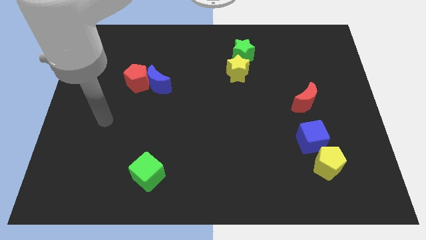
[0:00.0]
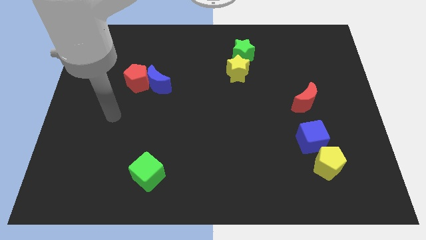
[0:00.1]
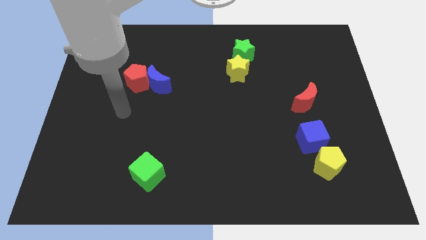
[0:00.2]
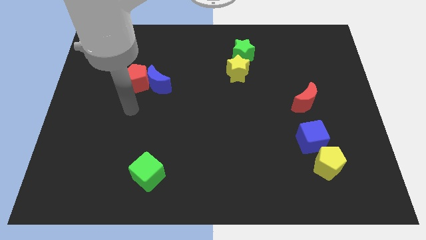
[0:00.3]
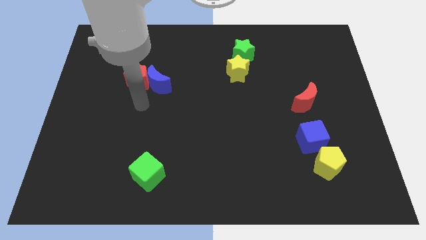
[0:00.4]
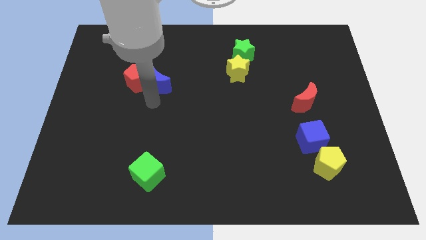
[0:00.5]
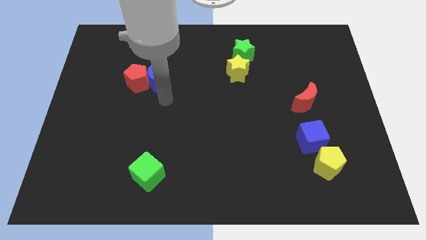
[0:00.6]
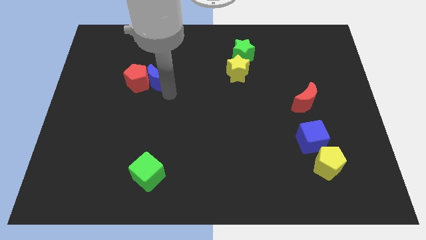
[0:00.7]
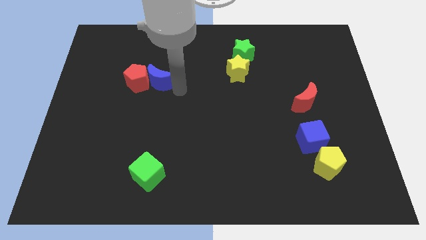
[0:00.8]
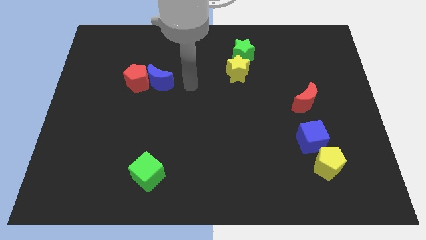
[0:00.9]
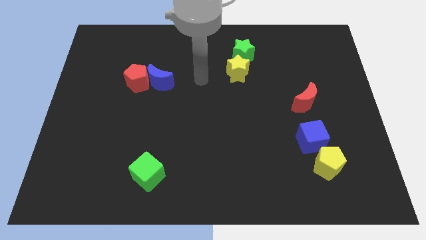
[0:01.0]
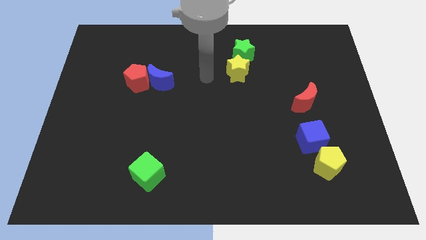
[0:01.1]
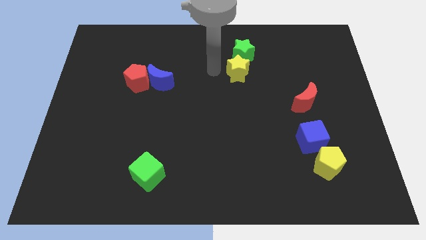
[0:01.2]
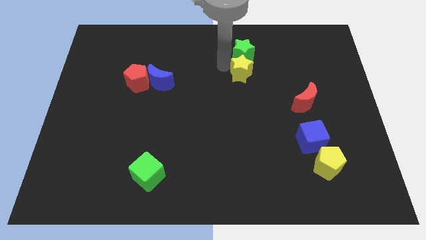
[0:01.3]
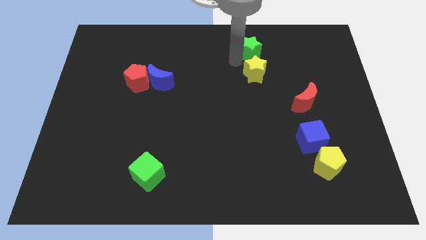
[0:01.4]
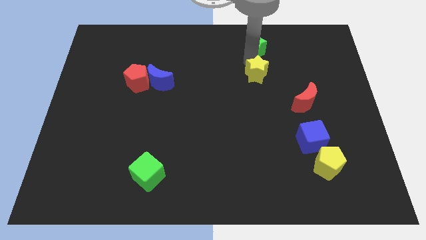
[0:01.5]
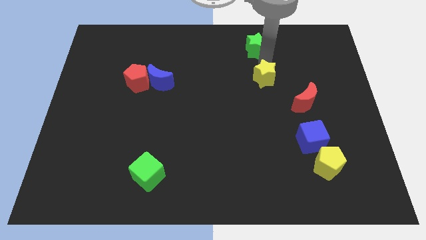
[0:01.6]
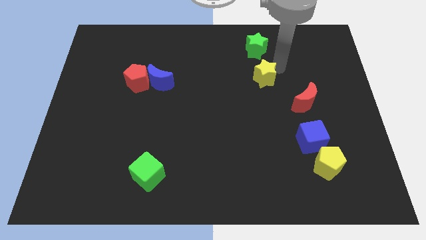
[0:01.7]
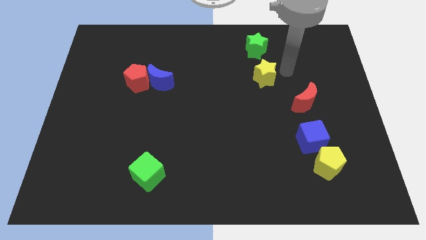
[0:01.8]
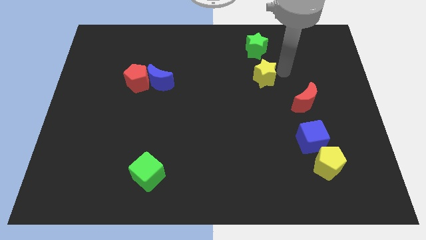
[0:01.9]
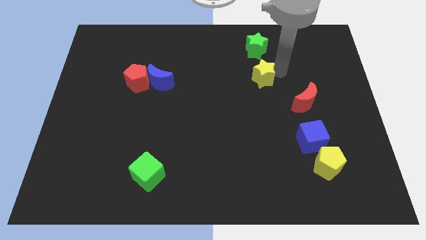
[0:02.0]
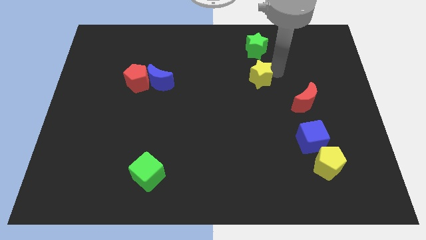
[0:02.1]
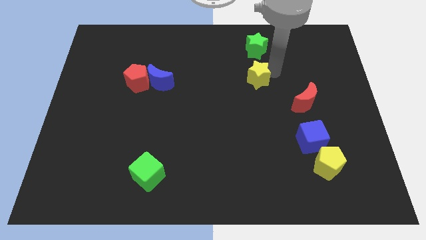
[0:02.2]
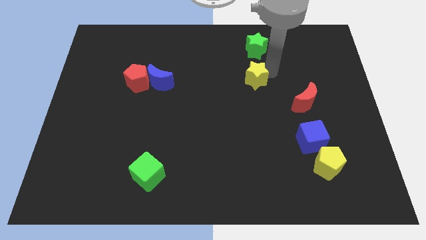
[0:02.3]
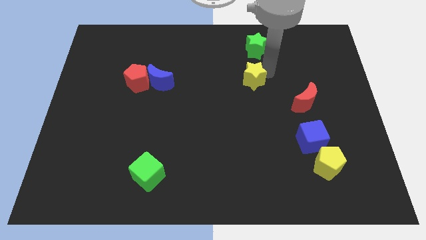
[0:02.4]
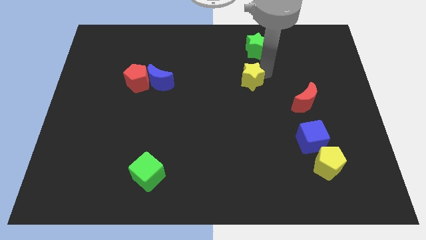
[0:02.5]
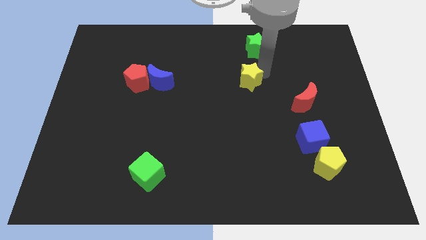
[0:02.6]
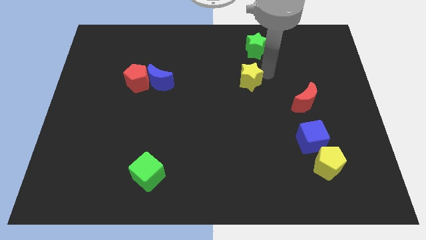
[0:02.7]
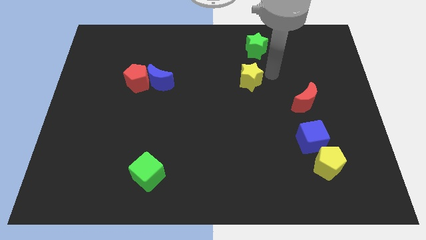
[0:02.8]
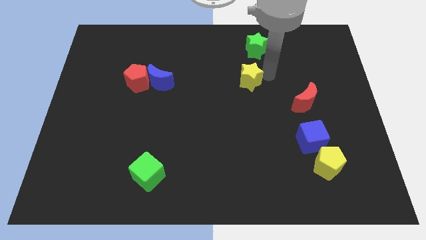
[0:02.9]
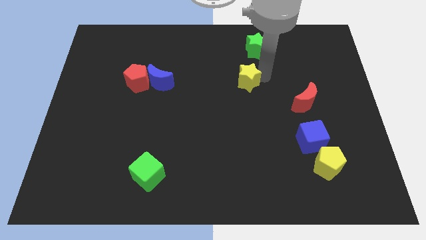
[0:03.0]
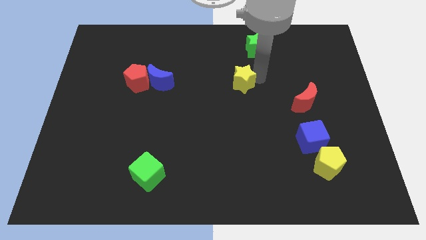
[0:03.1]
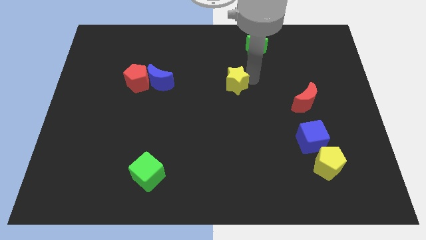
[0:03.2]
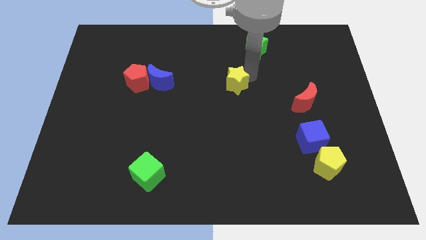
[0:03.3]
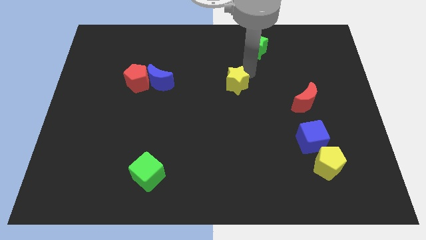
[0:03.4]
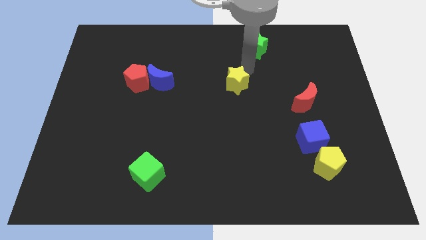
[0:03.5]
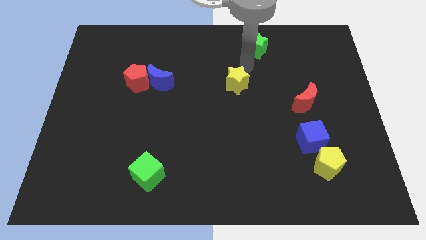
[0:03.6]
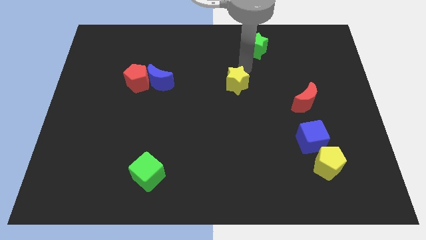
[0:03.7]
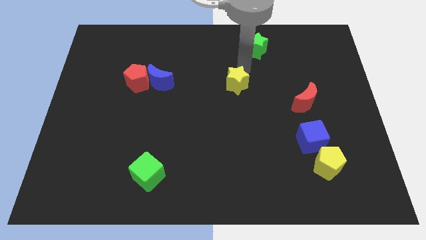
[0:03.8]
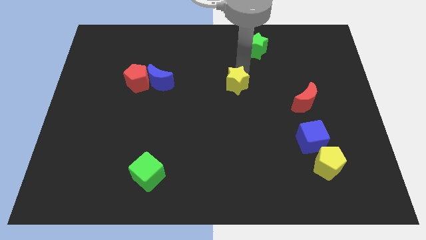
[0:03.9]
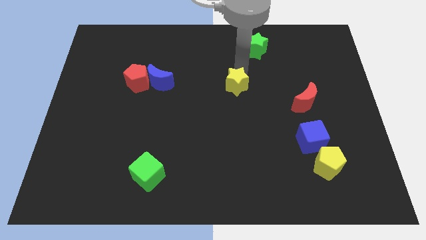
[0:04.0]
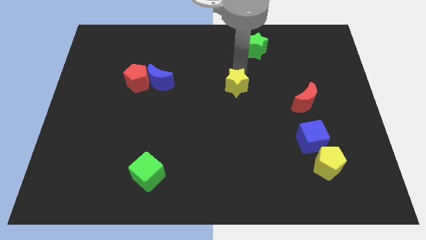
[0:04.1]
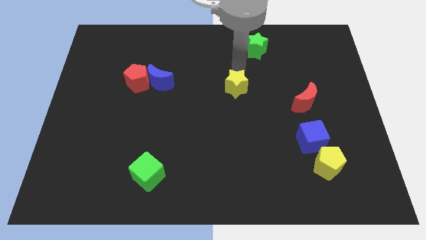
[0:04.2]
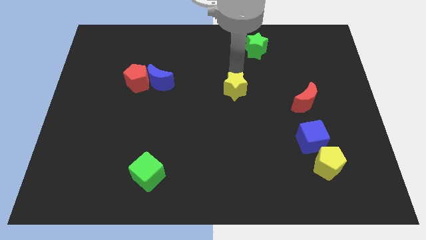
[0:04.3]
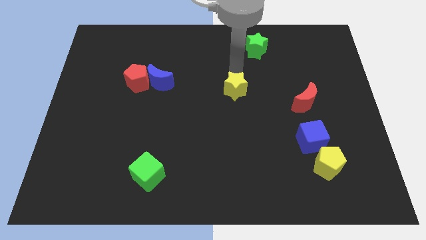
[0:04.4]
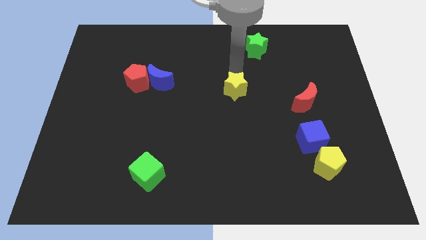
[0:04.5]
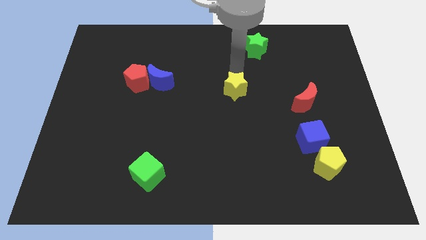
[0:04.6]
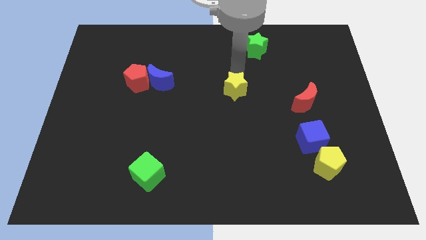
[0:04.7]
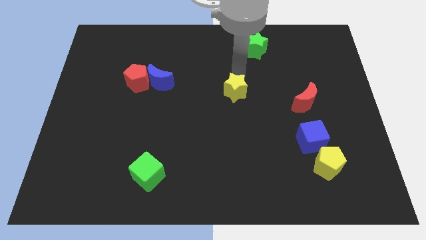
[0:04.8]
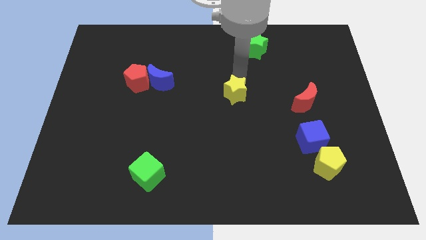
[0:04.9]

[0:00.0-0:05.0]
push the yellow star down a little bit

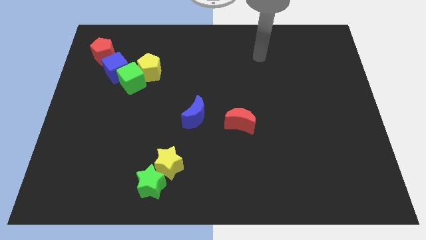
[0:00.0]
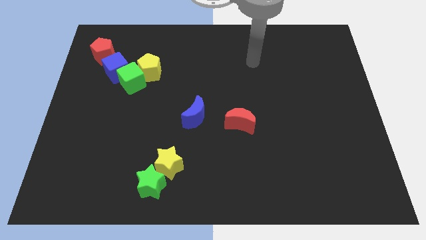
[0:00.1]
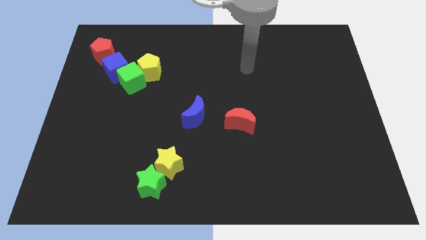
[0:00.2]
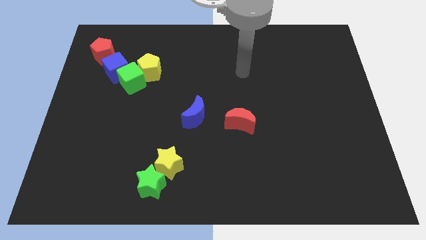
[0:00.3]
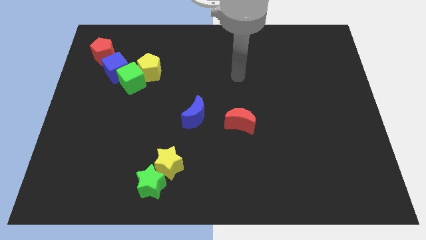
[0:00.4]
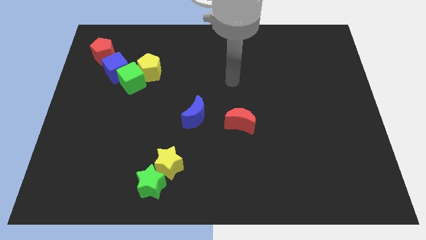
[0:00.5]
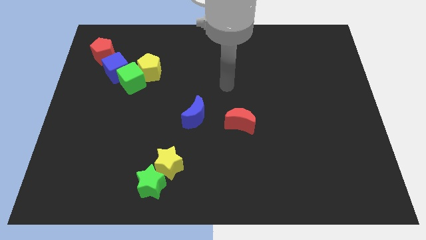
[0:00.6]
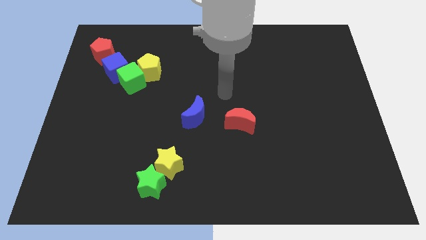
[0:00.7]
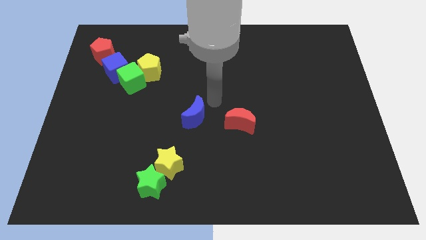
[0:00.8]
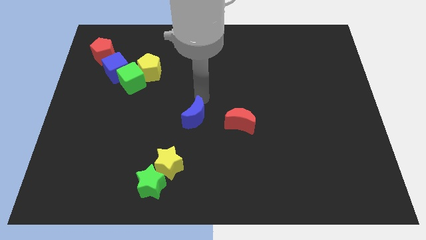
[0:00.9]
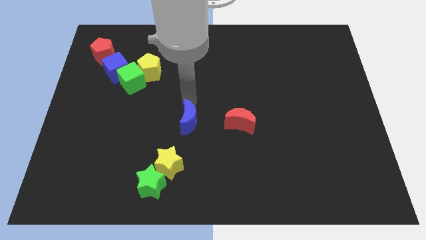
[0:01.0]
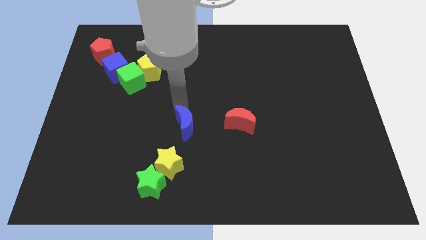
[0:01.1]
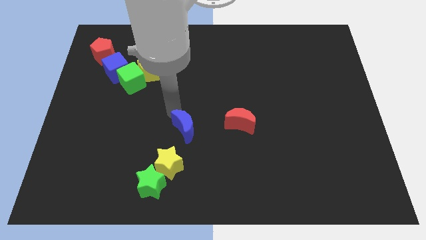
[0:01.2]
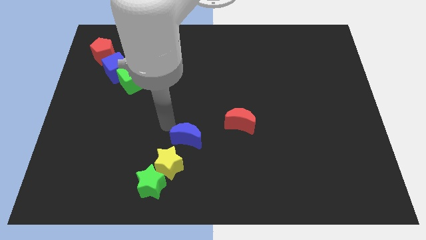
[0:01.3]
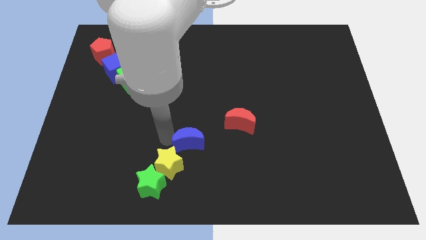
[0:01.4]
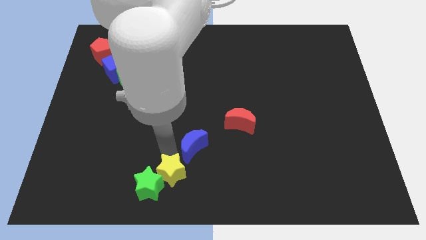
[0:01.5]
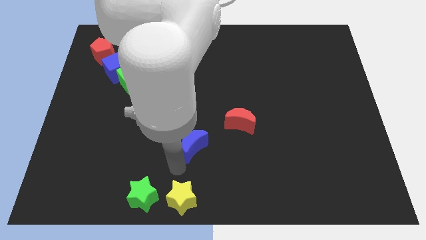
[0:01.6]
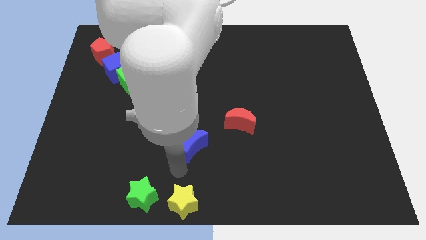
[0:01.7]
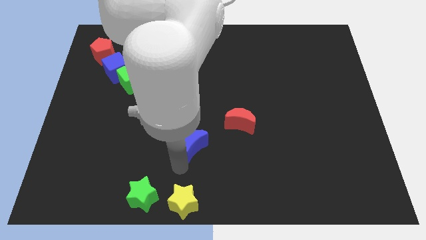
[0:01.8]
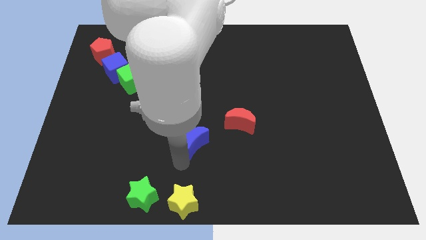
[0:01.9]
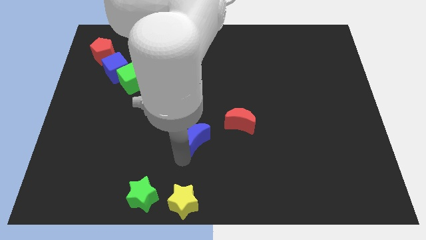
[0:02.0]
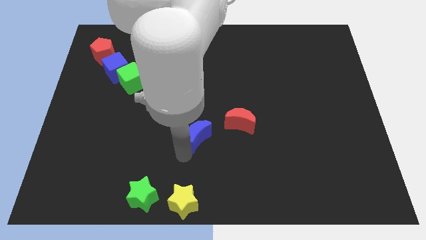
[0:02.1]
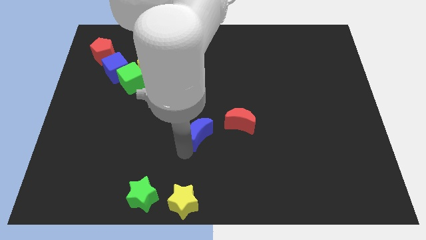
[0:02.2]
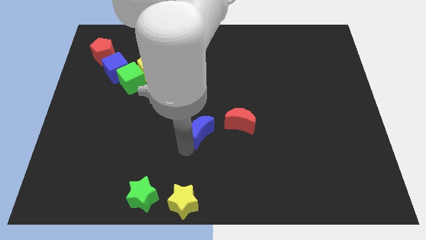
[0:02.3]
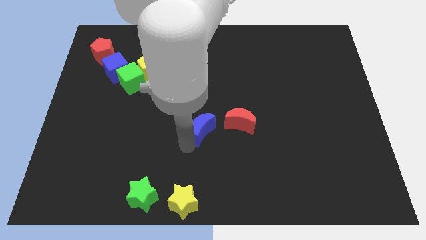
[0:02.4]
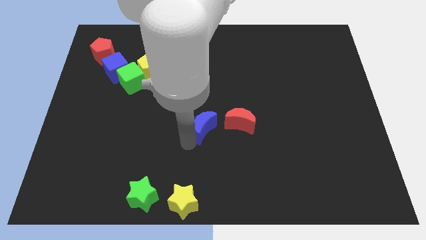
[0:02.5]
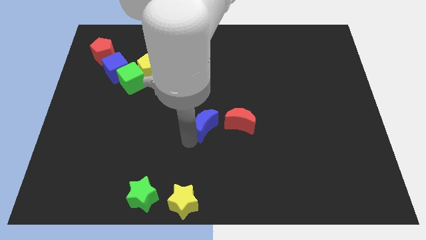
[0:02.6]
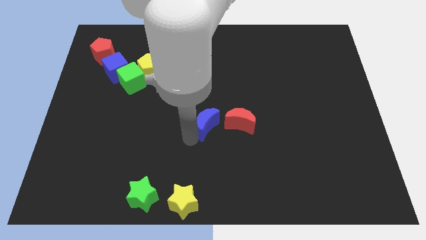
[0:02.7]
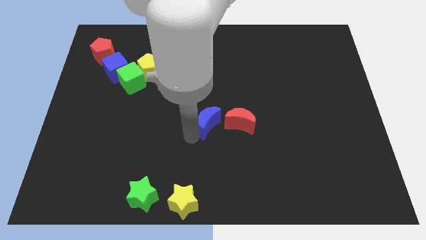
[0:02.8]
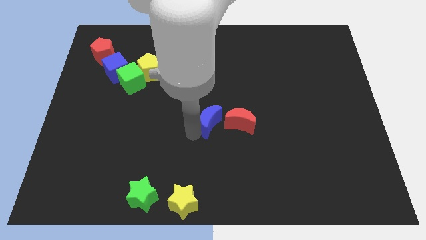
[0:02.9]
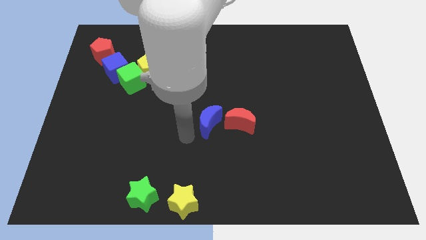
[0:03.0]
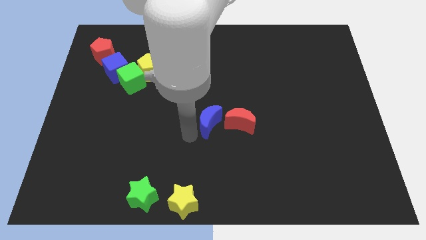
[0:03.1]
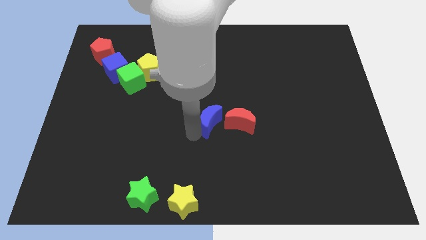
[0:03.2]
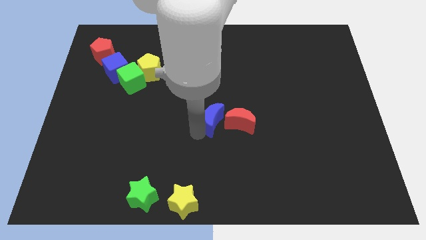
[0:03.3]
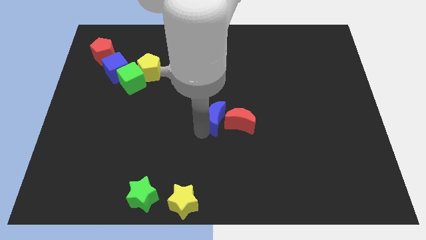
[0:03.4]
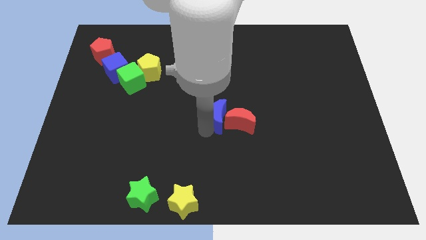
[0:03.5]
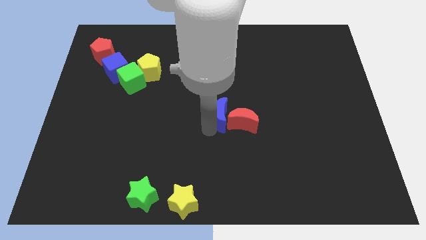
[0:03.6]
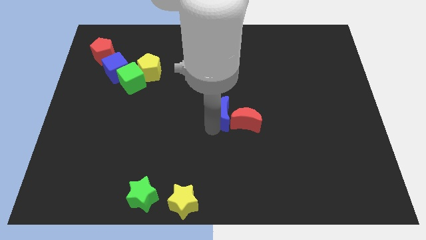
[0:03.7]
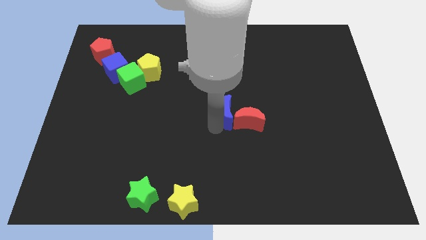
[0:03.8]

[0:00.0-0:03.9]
slightly slide the blue moon right
